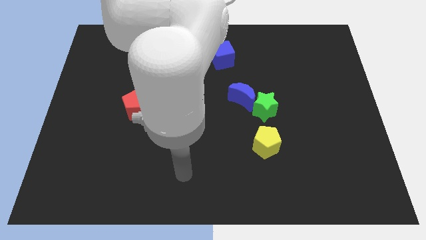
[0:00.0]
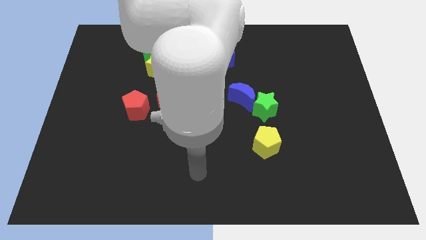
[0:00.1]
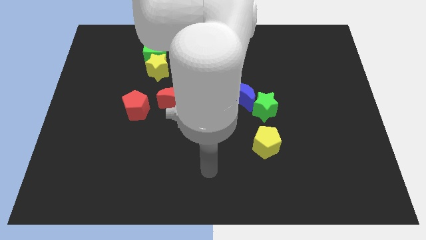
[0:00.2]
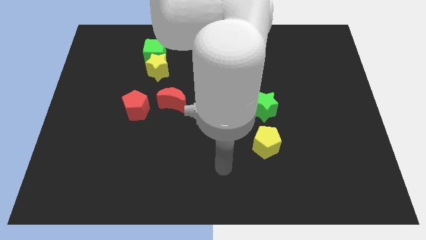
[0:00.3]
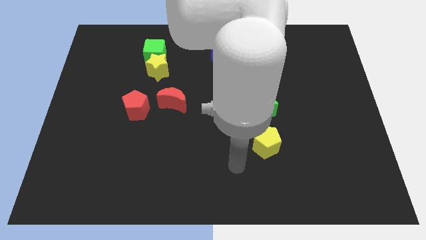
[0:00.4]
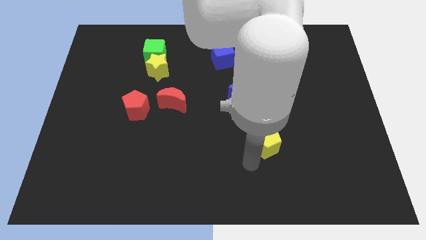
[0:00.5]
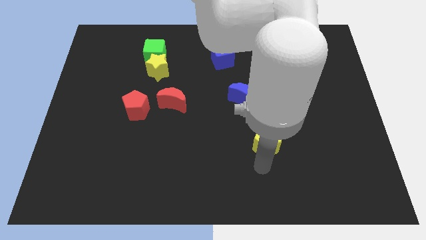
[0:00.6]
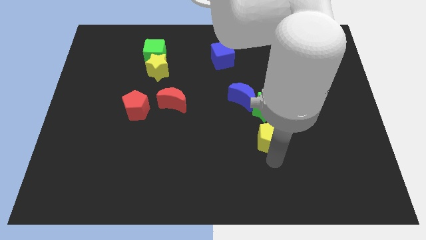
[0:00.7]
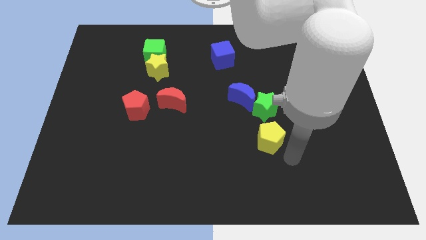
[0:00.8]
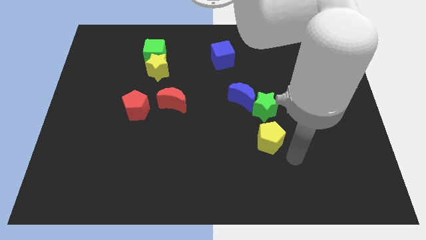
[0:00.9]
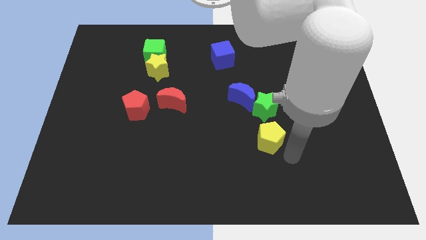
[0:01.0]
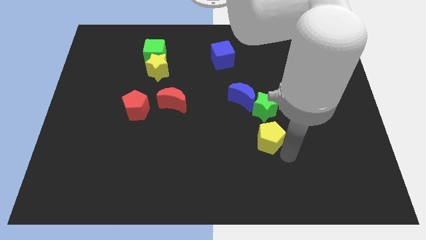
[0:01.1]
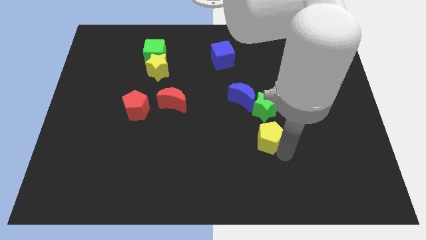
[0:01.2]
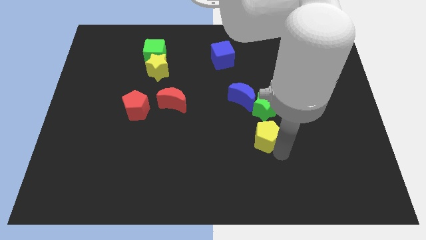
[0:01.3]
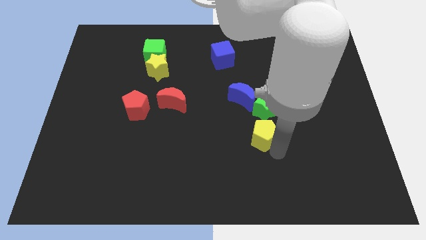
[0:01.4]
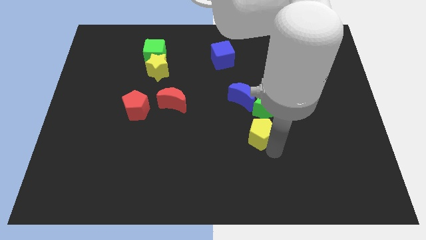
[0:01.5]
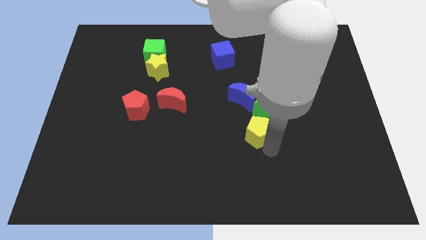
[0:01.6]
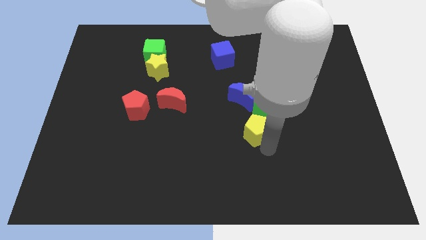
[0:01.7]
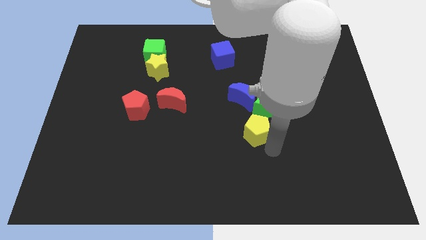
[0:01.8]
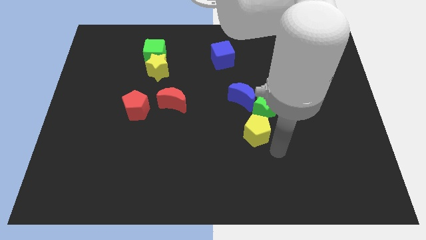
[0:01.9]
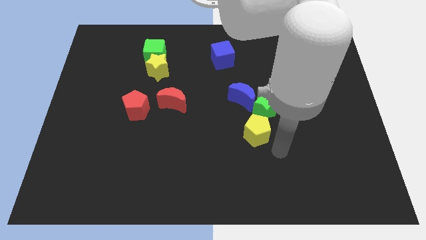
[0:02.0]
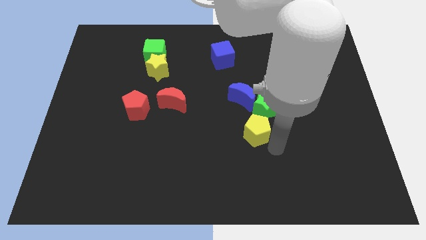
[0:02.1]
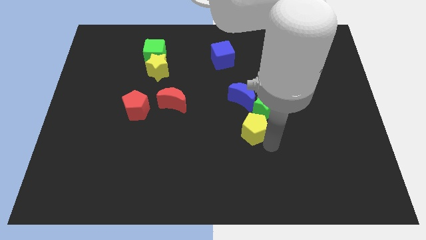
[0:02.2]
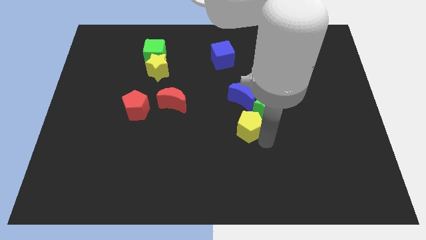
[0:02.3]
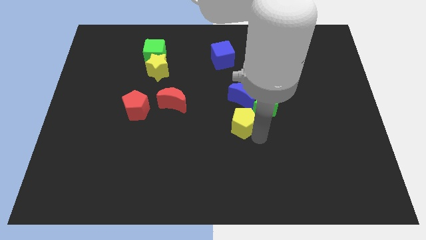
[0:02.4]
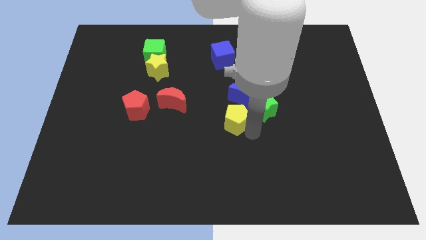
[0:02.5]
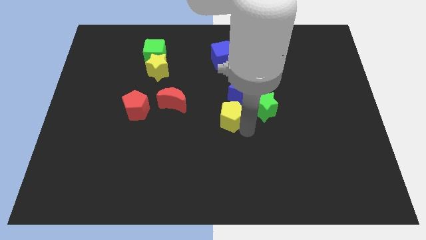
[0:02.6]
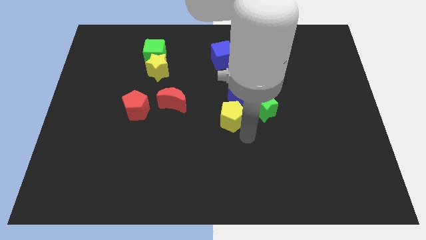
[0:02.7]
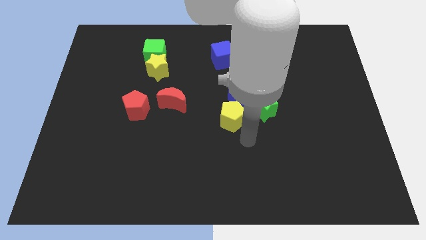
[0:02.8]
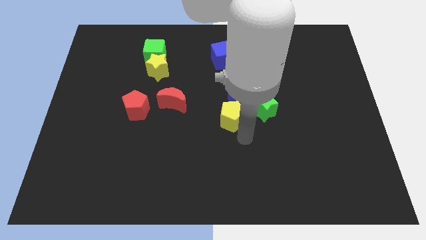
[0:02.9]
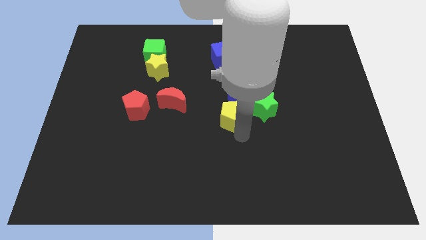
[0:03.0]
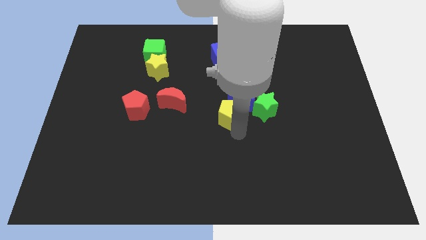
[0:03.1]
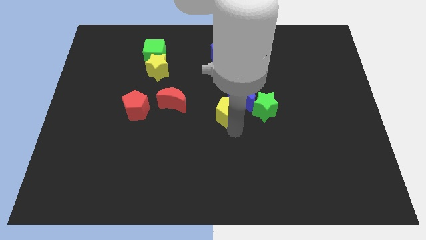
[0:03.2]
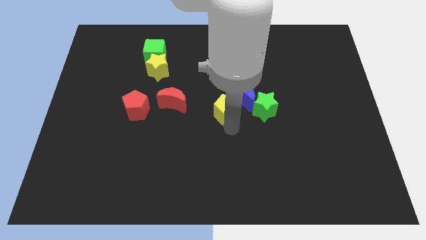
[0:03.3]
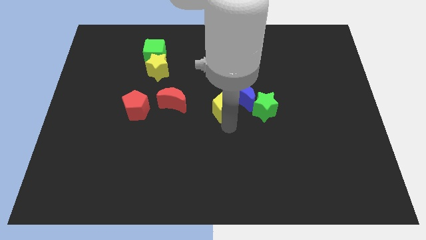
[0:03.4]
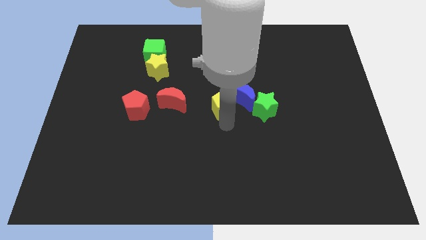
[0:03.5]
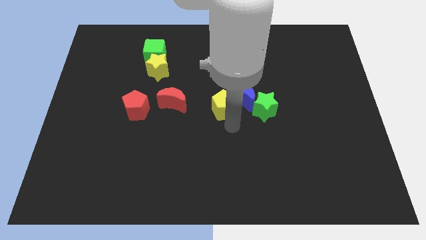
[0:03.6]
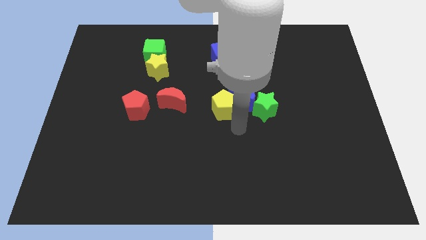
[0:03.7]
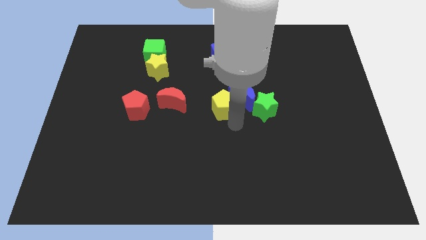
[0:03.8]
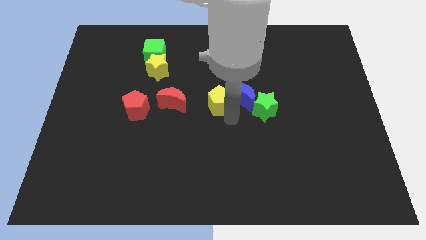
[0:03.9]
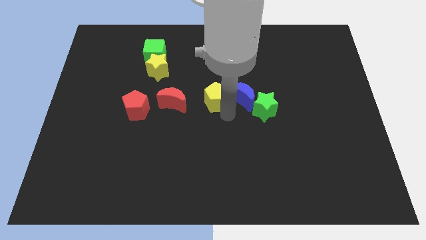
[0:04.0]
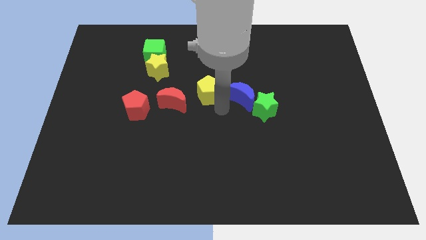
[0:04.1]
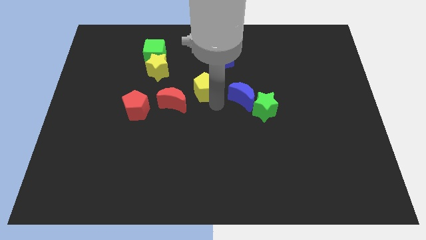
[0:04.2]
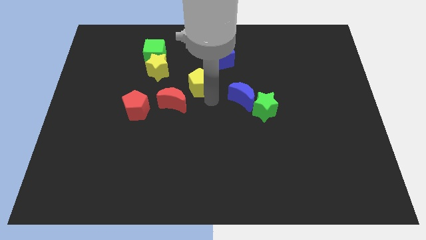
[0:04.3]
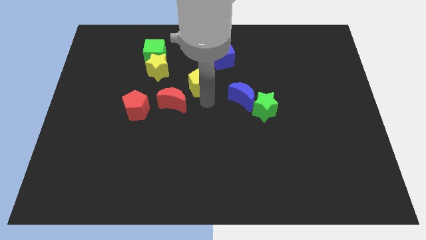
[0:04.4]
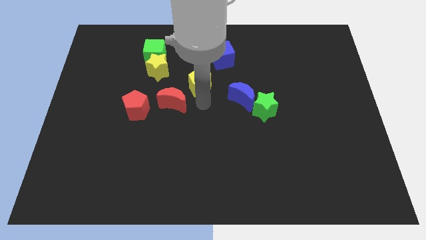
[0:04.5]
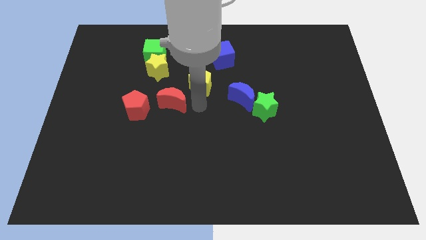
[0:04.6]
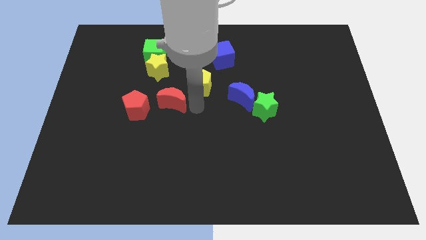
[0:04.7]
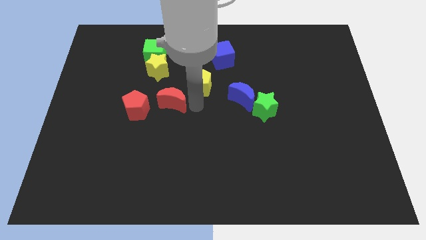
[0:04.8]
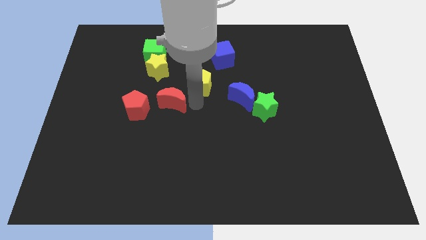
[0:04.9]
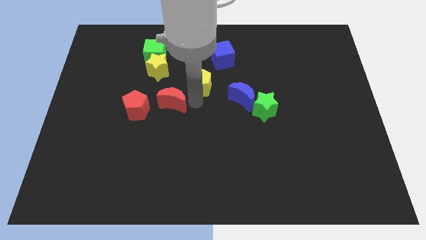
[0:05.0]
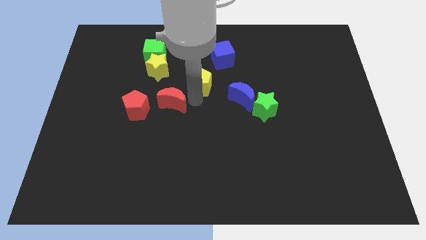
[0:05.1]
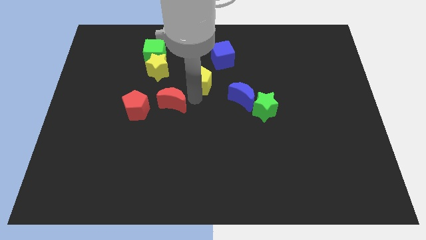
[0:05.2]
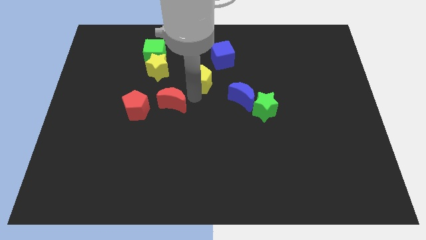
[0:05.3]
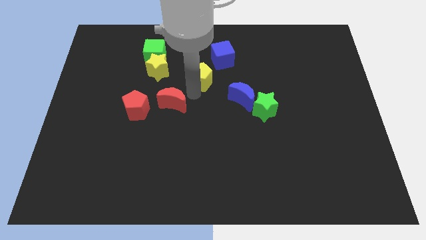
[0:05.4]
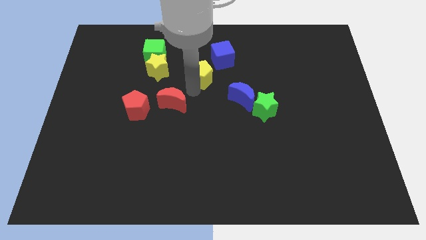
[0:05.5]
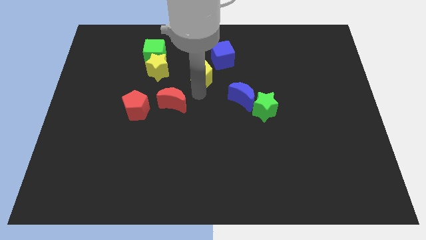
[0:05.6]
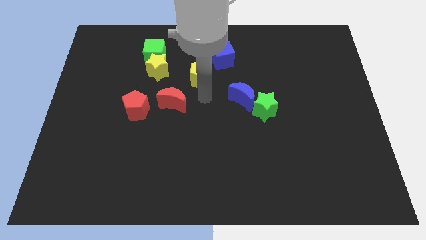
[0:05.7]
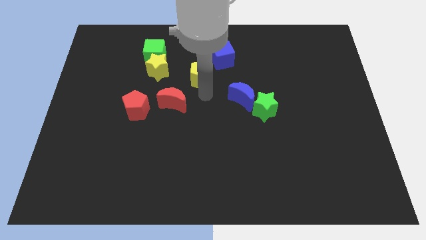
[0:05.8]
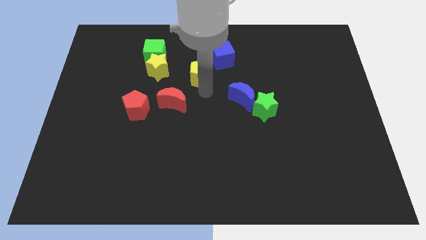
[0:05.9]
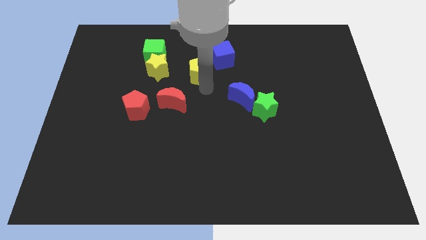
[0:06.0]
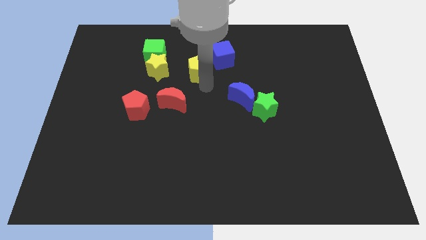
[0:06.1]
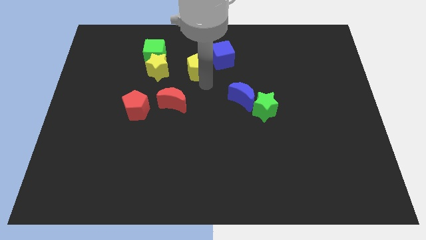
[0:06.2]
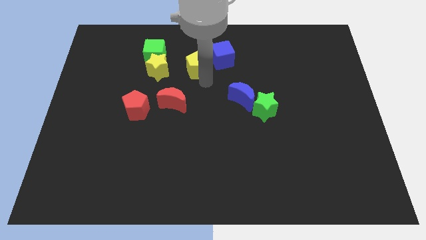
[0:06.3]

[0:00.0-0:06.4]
move the yellow pentagon right of the green cube

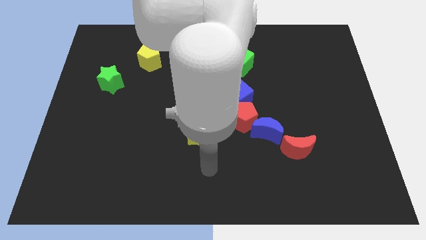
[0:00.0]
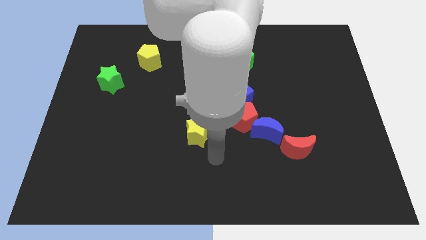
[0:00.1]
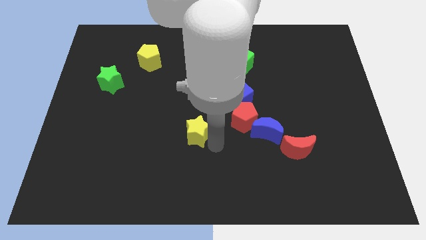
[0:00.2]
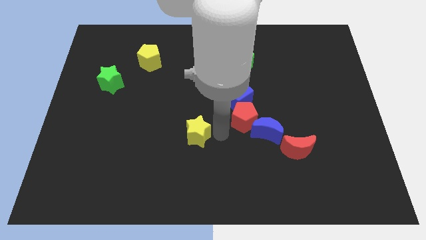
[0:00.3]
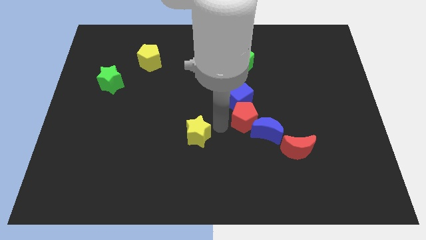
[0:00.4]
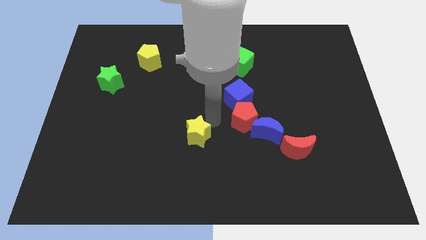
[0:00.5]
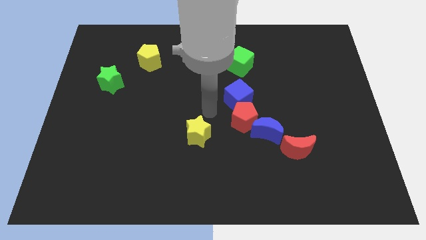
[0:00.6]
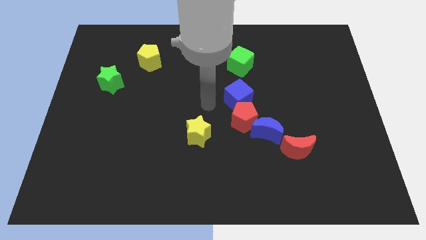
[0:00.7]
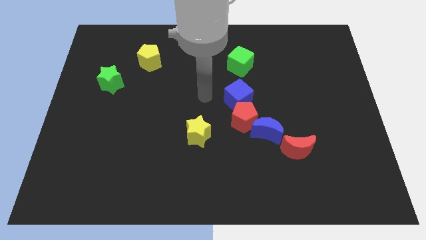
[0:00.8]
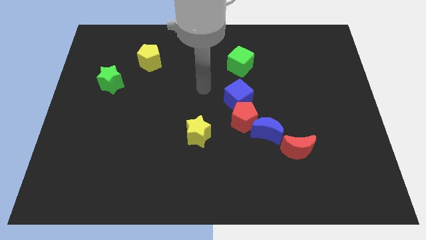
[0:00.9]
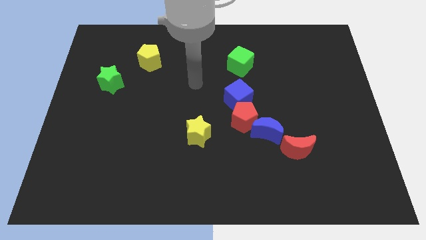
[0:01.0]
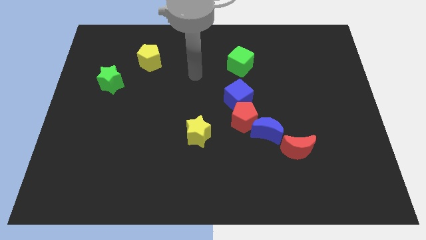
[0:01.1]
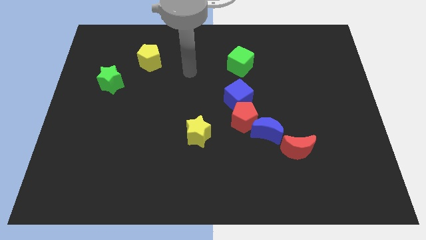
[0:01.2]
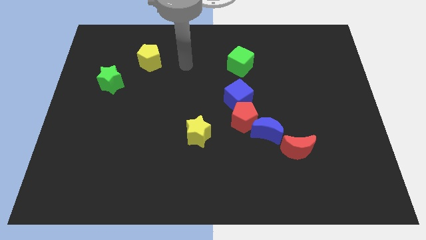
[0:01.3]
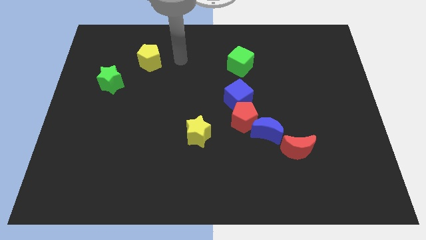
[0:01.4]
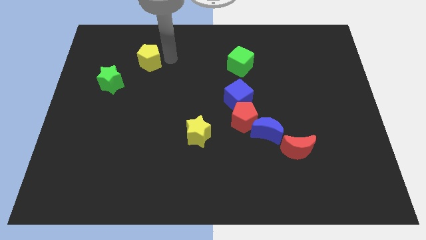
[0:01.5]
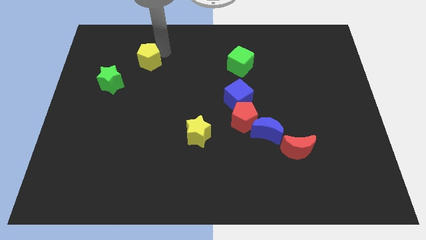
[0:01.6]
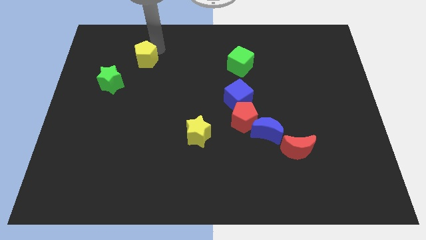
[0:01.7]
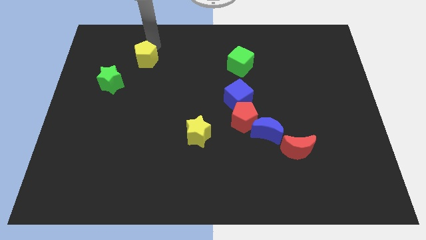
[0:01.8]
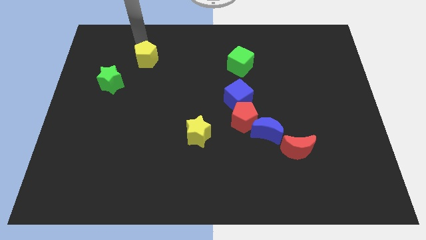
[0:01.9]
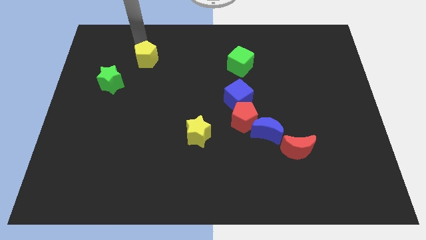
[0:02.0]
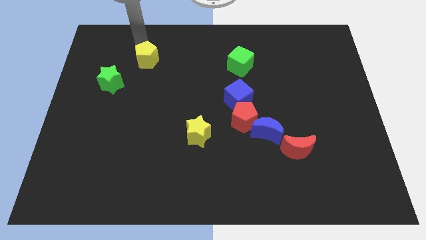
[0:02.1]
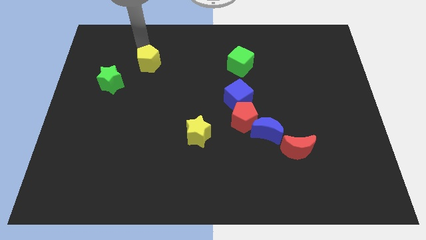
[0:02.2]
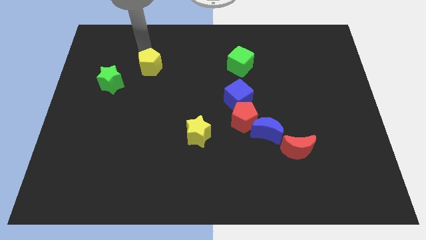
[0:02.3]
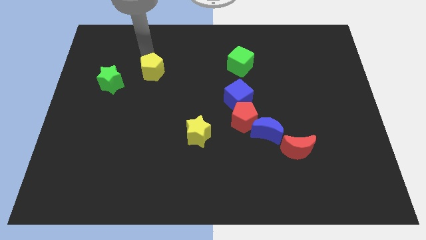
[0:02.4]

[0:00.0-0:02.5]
move the yellow pentagon to the right of the green star
